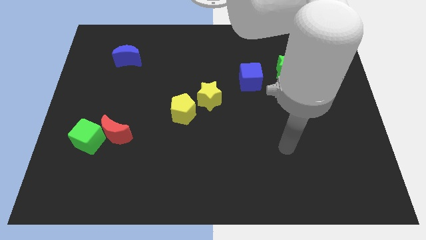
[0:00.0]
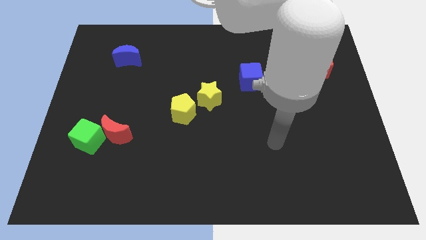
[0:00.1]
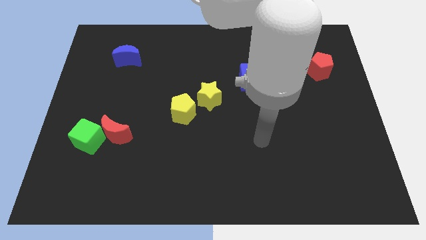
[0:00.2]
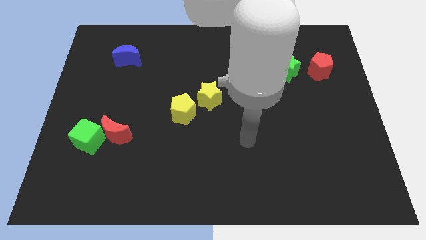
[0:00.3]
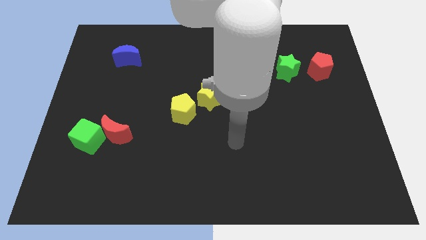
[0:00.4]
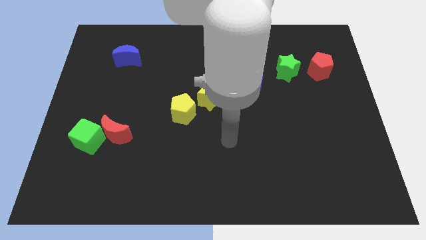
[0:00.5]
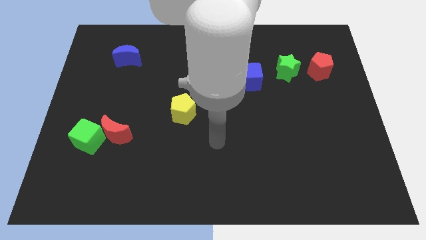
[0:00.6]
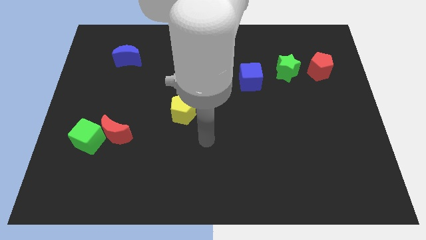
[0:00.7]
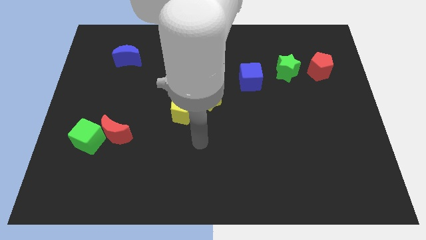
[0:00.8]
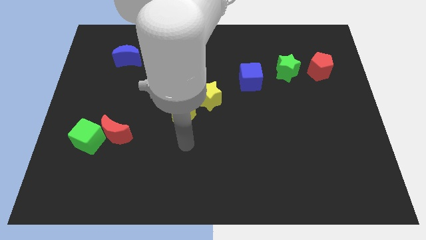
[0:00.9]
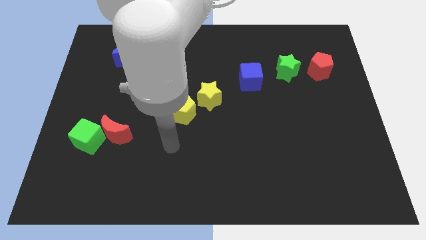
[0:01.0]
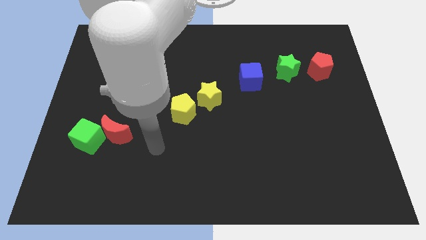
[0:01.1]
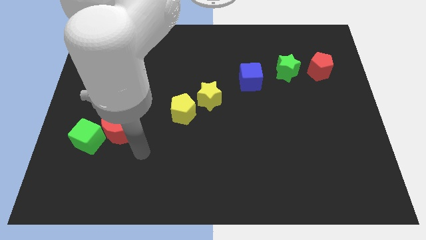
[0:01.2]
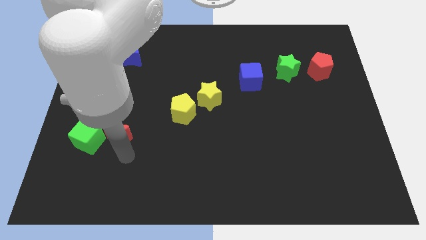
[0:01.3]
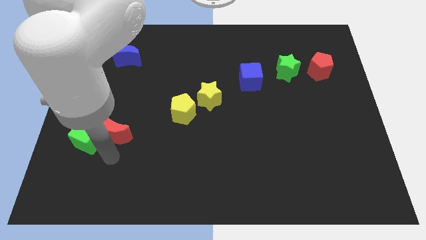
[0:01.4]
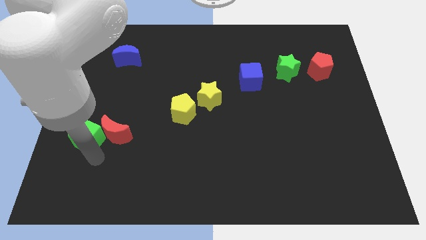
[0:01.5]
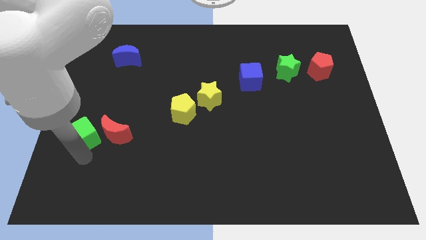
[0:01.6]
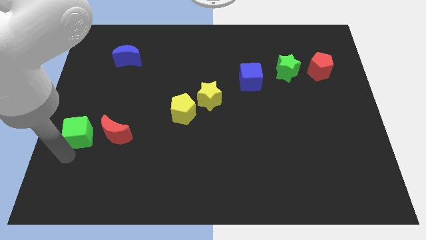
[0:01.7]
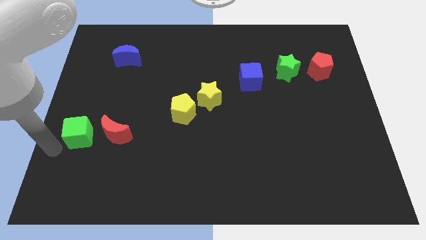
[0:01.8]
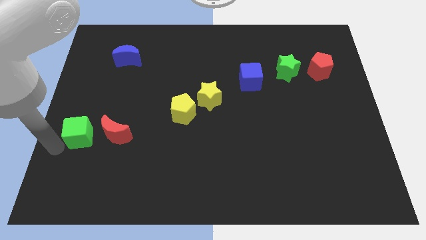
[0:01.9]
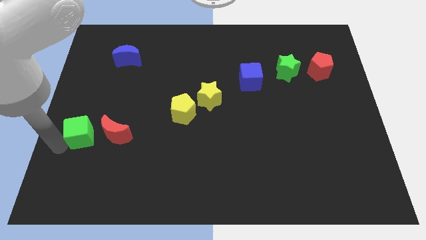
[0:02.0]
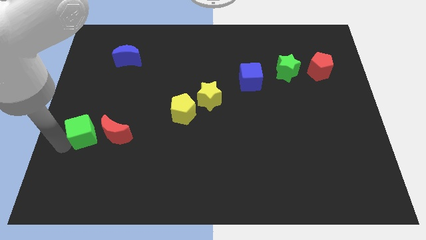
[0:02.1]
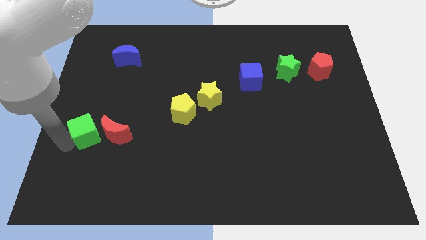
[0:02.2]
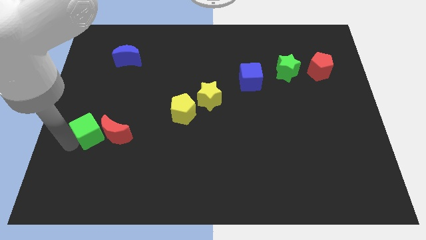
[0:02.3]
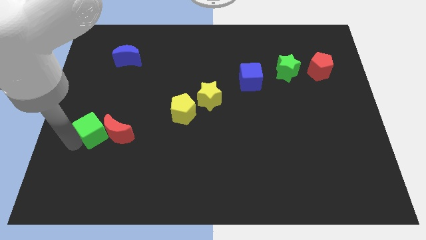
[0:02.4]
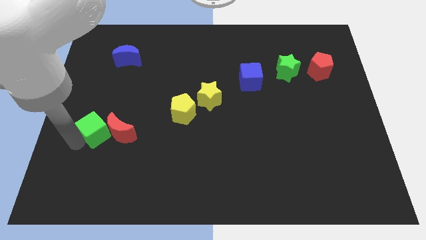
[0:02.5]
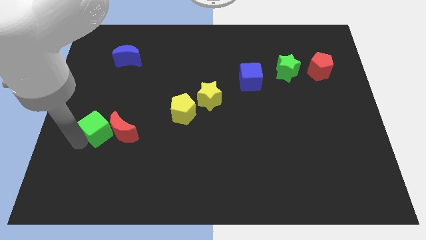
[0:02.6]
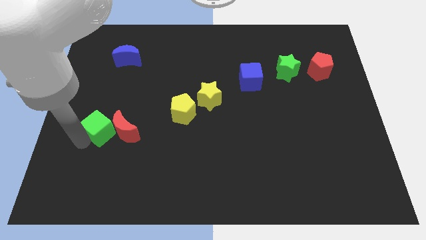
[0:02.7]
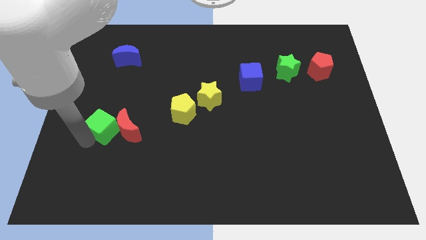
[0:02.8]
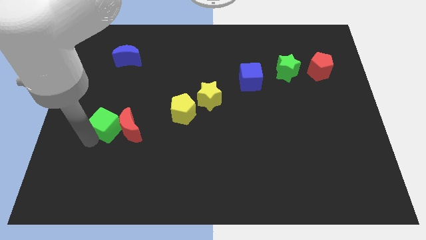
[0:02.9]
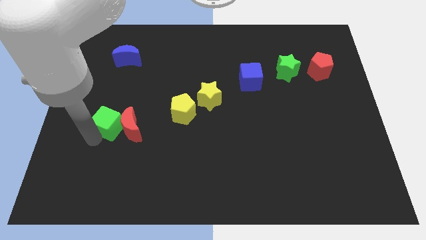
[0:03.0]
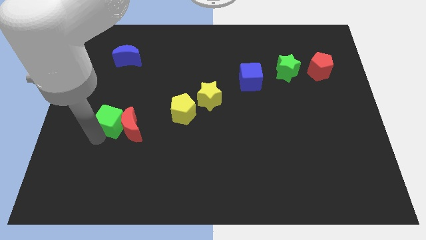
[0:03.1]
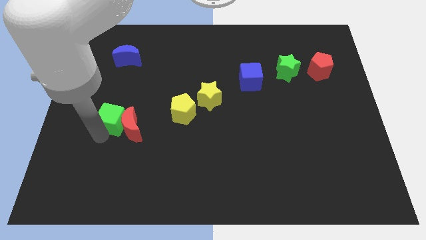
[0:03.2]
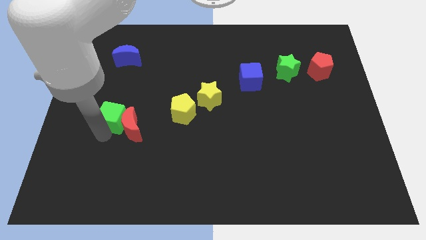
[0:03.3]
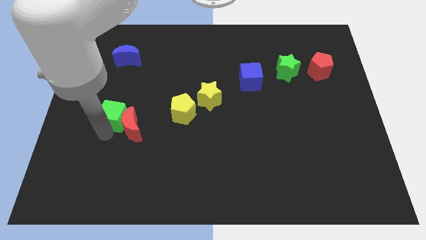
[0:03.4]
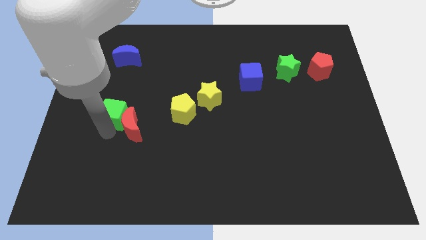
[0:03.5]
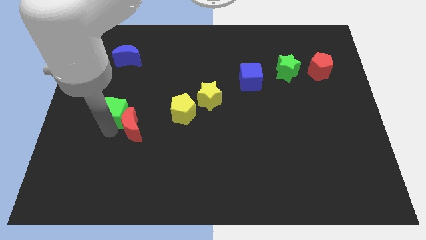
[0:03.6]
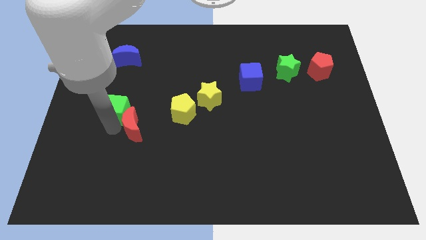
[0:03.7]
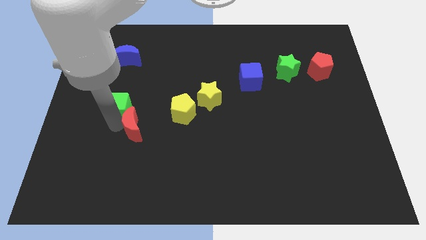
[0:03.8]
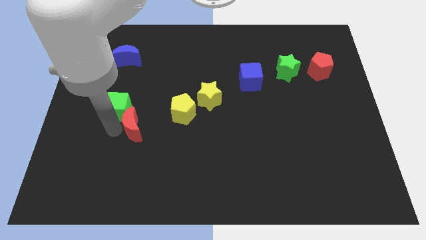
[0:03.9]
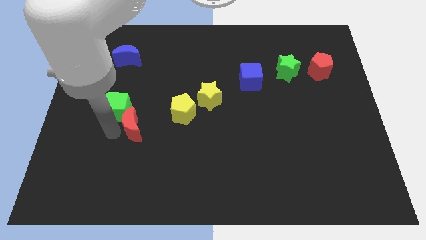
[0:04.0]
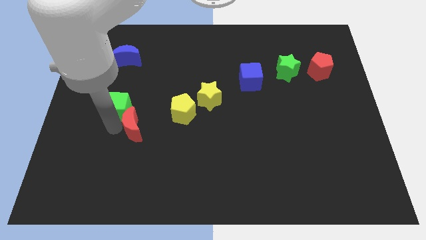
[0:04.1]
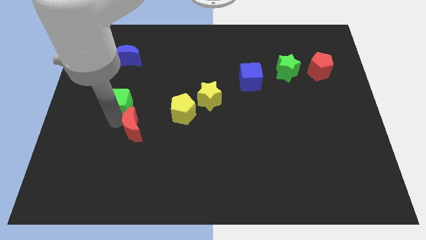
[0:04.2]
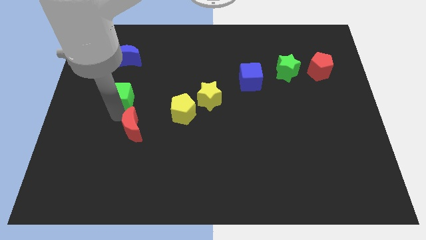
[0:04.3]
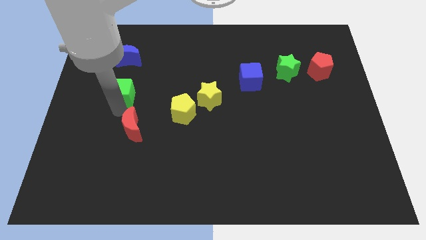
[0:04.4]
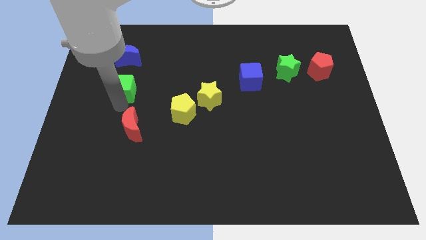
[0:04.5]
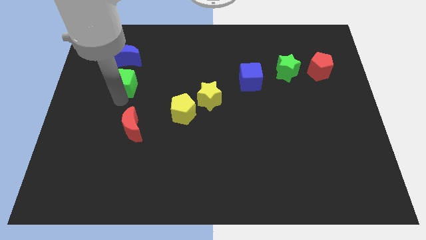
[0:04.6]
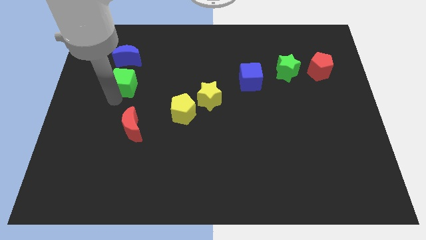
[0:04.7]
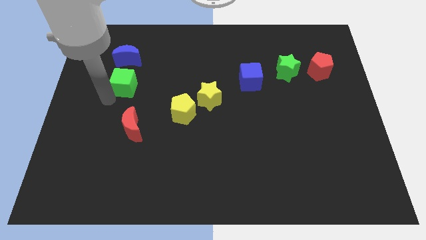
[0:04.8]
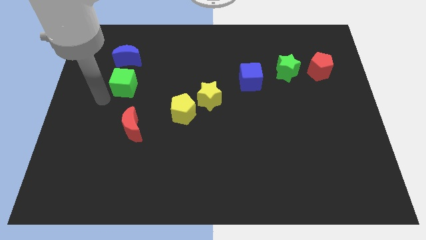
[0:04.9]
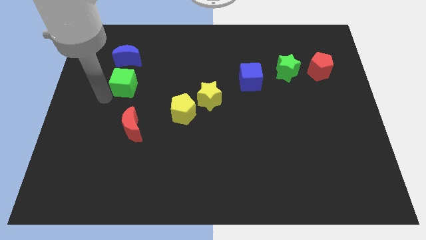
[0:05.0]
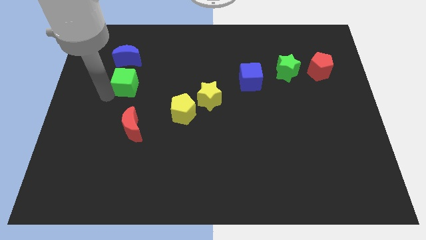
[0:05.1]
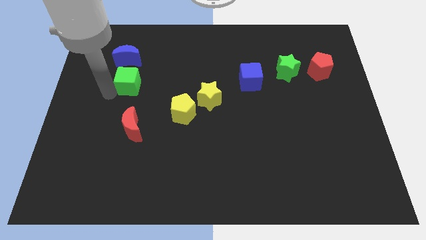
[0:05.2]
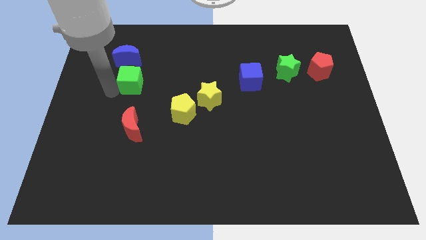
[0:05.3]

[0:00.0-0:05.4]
move the green cube to the bottom right side of the blue moon

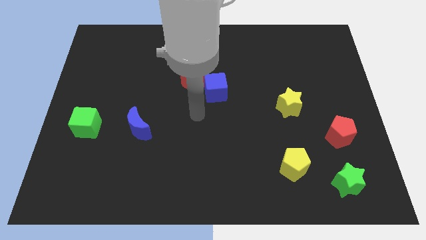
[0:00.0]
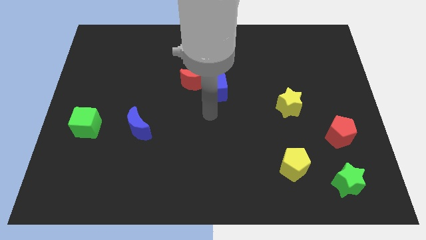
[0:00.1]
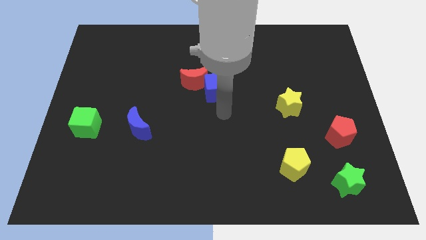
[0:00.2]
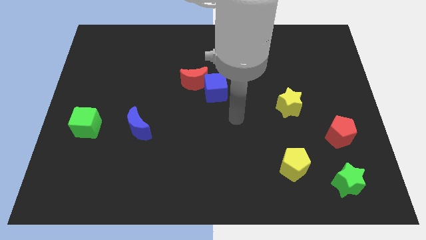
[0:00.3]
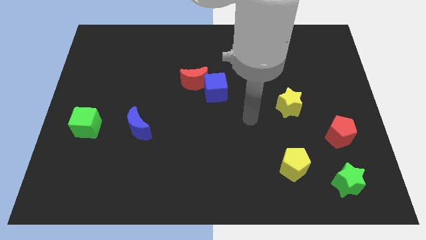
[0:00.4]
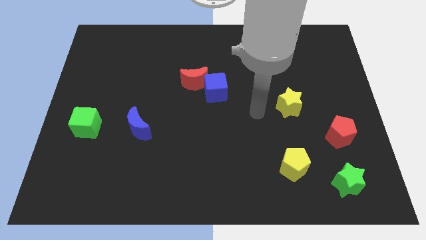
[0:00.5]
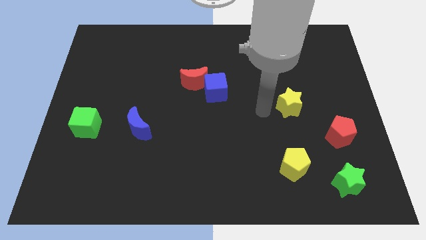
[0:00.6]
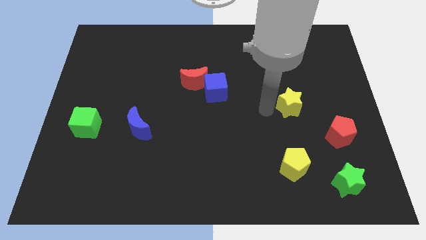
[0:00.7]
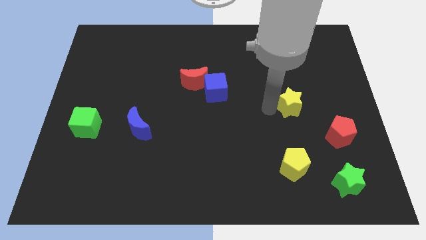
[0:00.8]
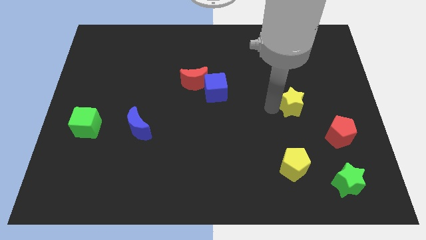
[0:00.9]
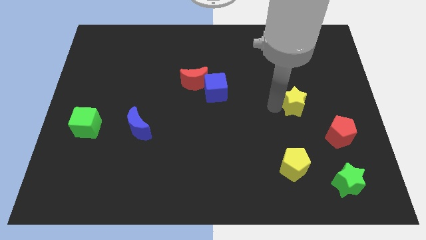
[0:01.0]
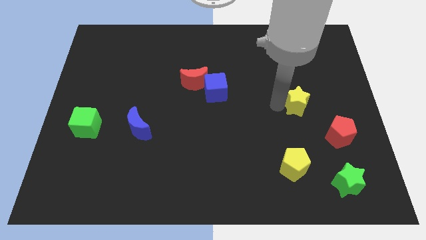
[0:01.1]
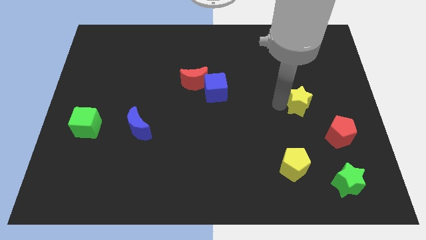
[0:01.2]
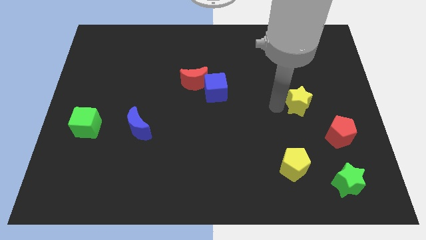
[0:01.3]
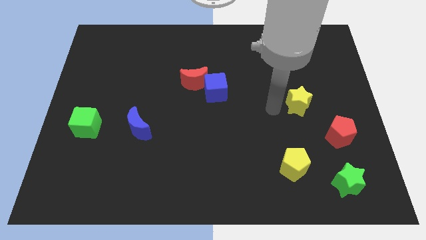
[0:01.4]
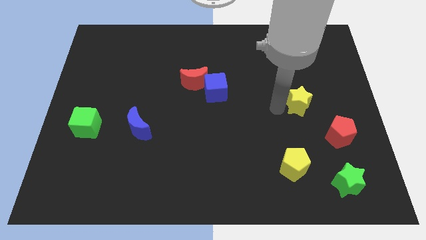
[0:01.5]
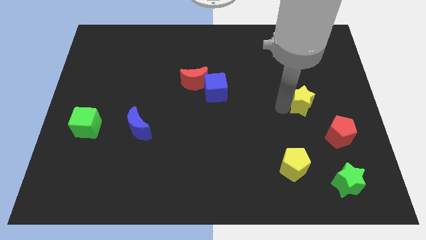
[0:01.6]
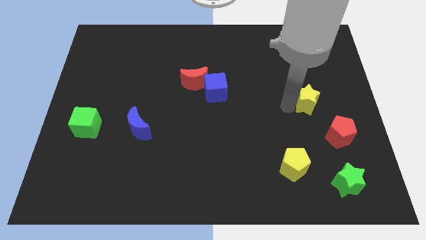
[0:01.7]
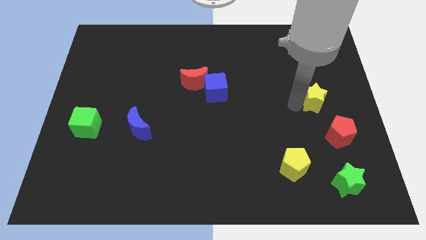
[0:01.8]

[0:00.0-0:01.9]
move the yellow star above the red pentagon

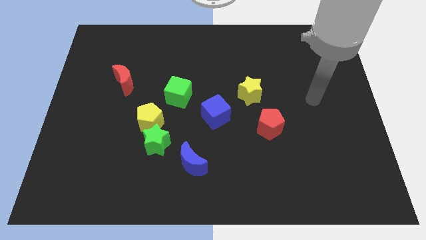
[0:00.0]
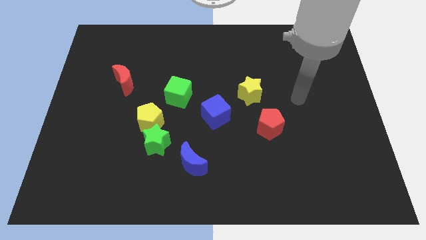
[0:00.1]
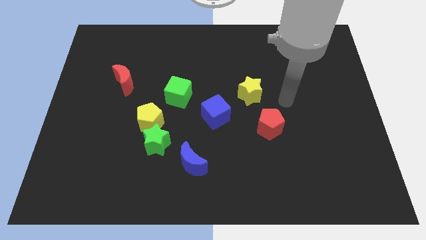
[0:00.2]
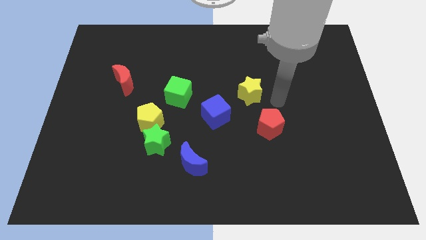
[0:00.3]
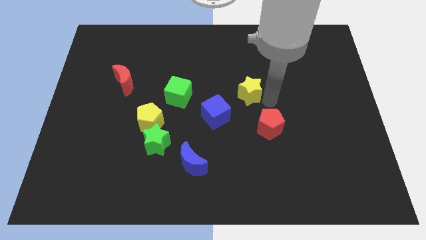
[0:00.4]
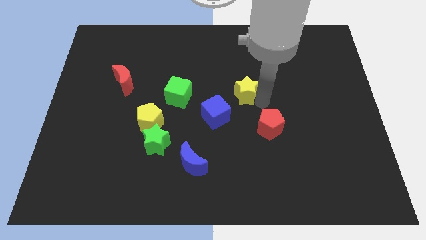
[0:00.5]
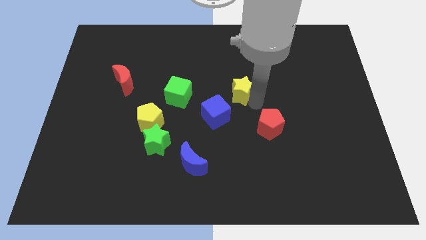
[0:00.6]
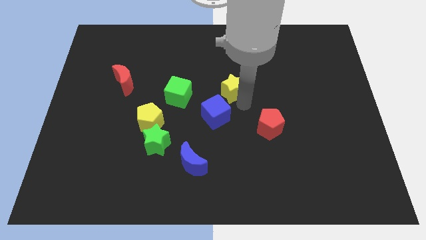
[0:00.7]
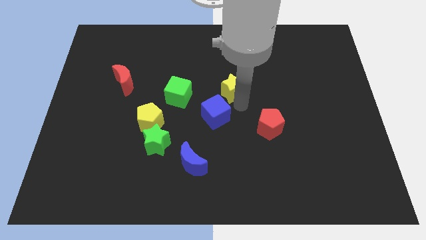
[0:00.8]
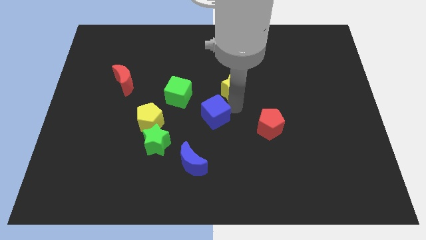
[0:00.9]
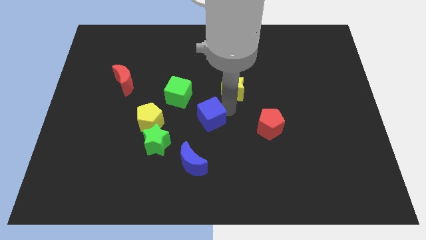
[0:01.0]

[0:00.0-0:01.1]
slide the blue cube to the top side of the blue moon
